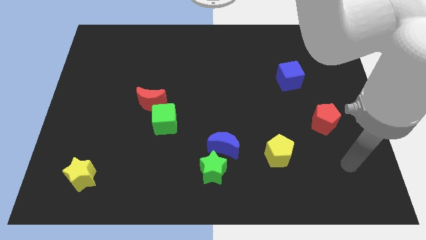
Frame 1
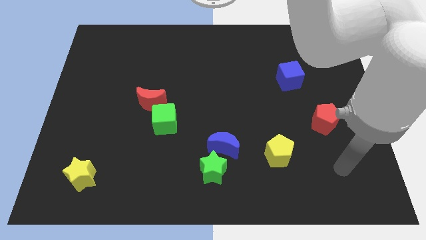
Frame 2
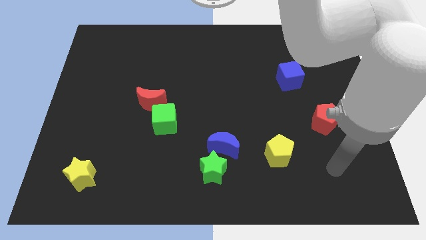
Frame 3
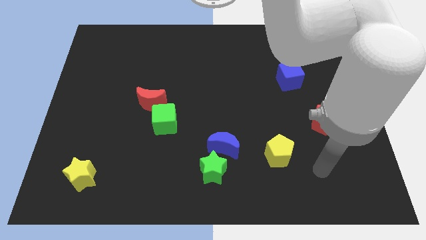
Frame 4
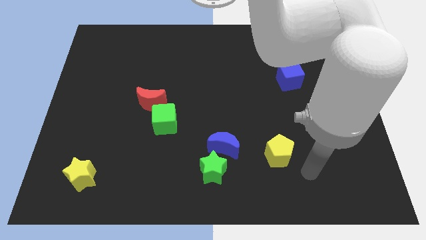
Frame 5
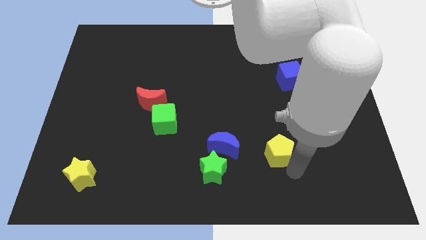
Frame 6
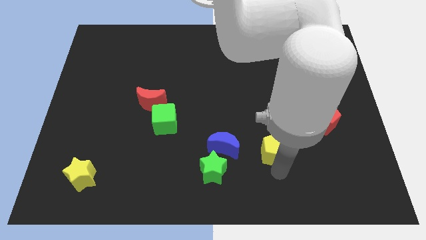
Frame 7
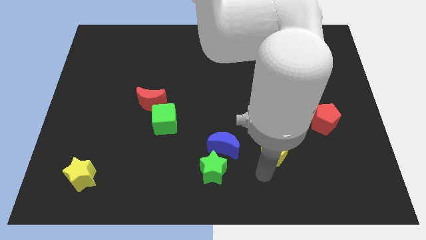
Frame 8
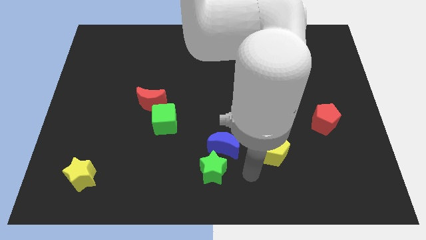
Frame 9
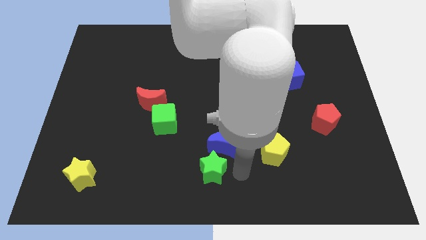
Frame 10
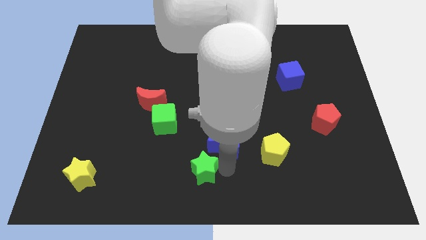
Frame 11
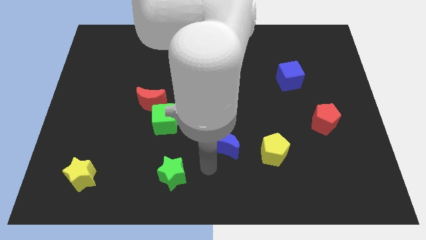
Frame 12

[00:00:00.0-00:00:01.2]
move the blue moon away from the green star

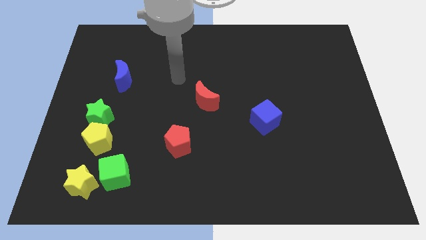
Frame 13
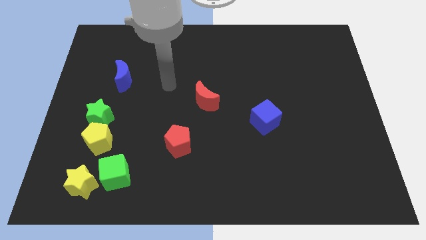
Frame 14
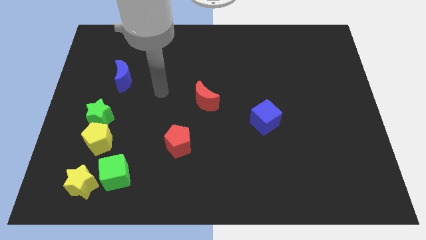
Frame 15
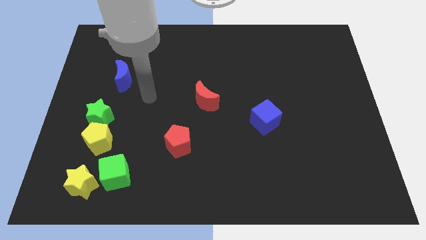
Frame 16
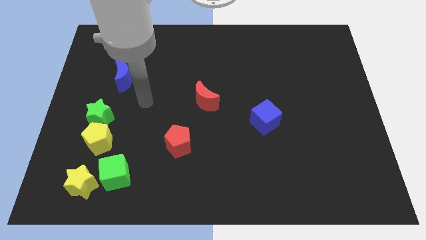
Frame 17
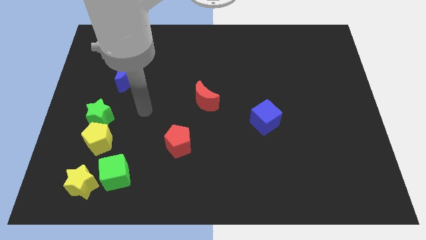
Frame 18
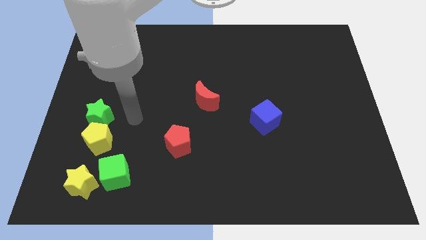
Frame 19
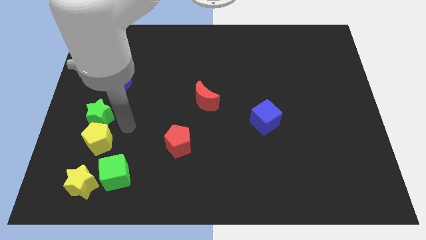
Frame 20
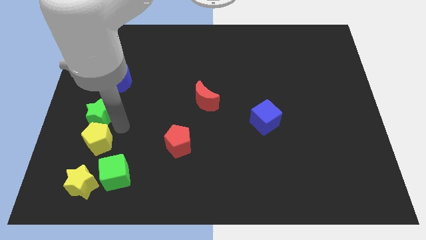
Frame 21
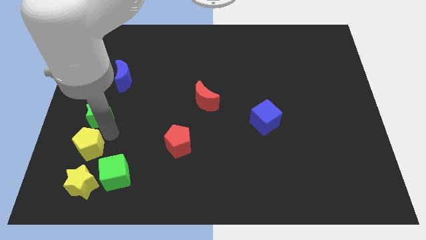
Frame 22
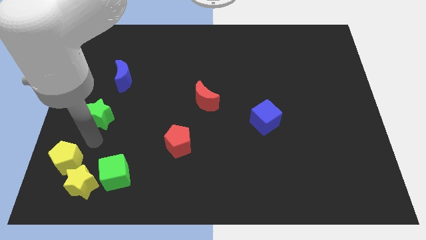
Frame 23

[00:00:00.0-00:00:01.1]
pull the green star apart from the yellow pentagon

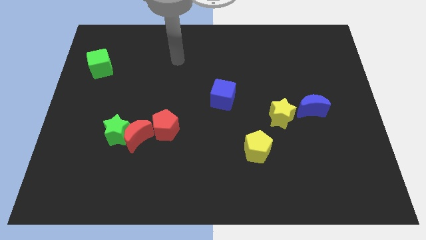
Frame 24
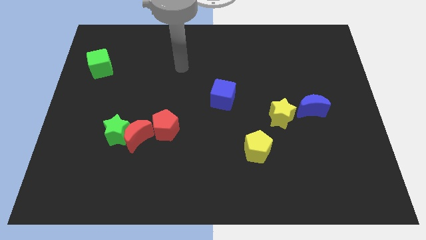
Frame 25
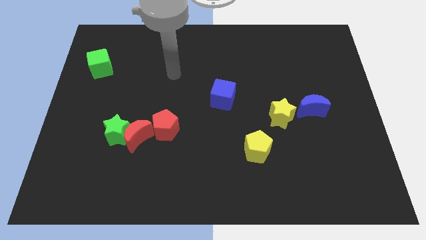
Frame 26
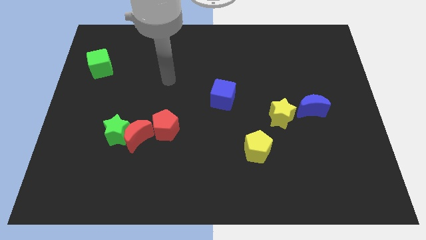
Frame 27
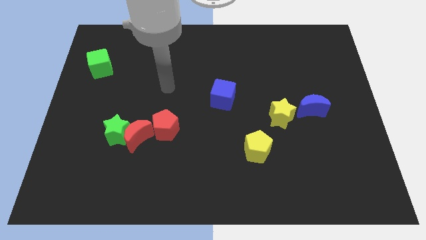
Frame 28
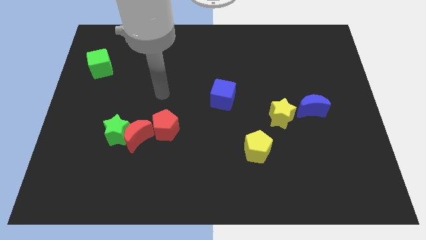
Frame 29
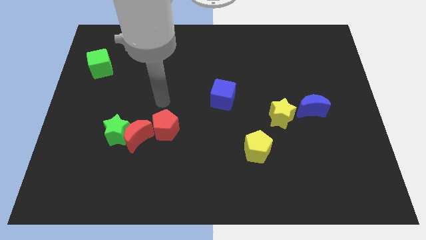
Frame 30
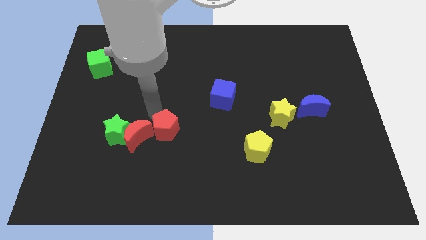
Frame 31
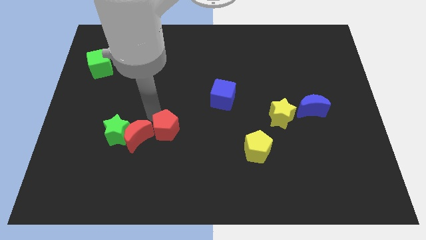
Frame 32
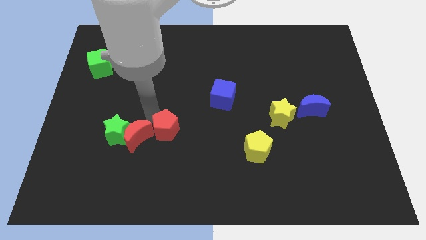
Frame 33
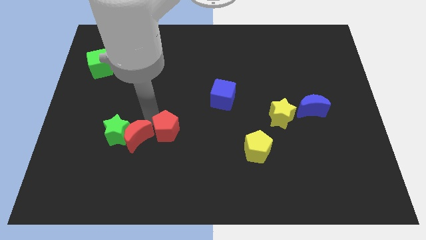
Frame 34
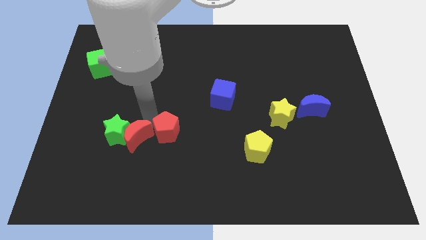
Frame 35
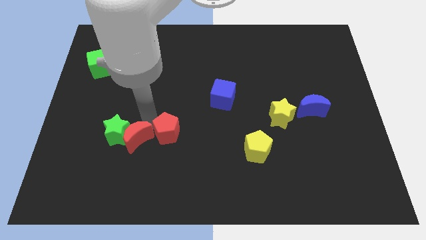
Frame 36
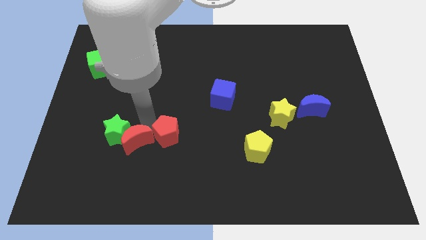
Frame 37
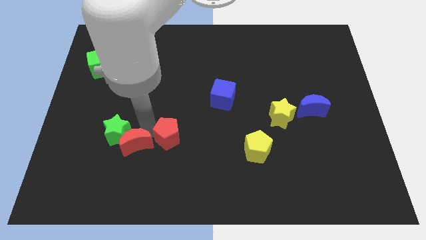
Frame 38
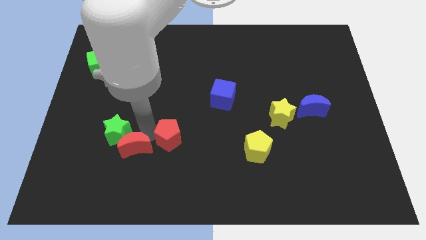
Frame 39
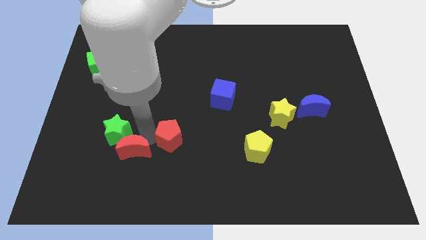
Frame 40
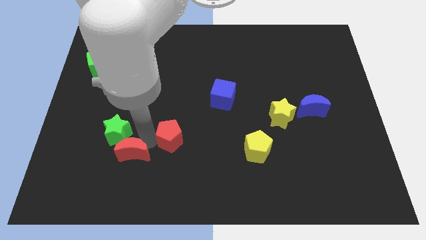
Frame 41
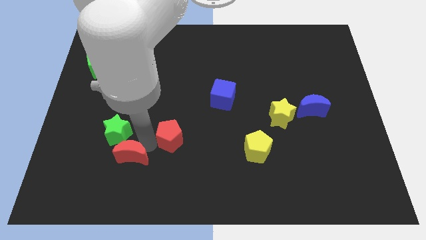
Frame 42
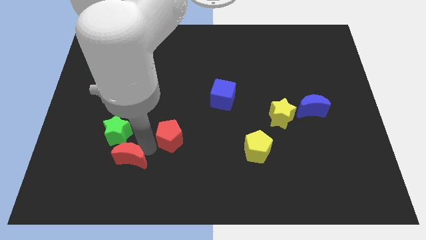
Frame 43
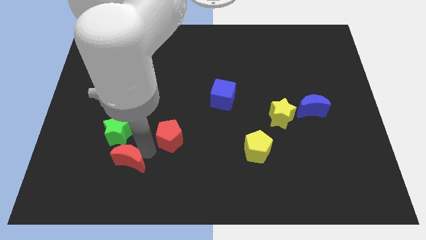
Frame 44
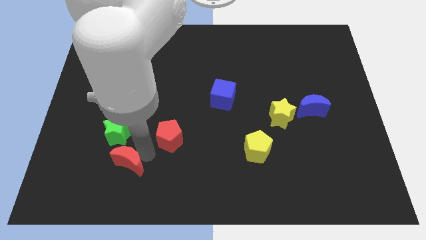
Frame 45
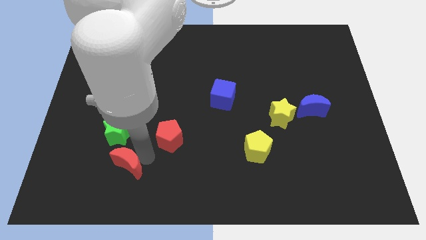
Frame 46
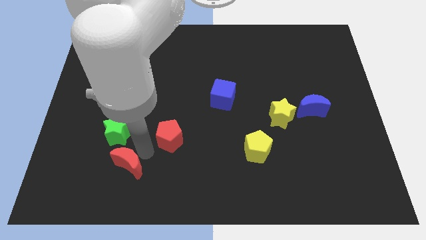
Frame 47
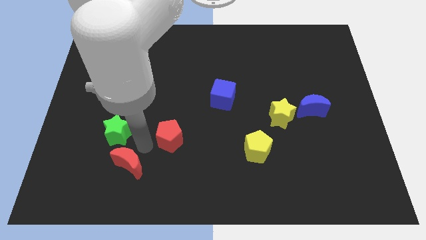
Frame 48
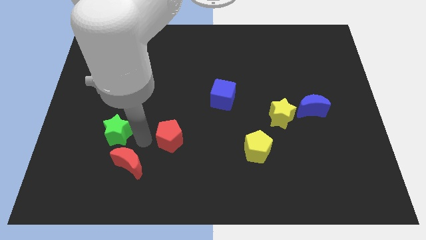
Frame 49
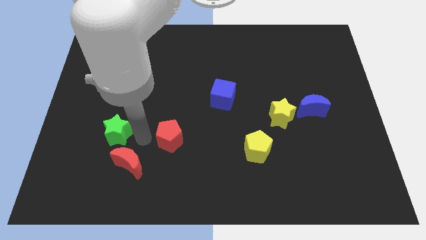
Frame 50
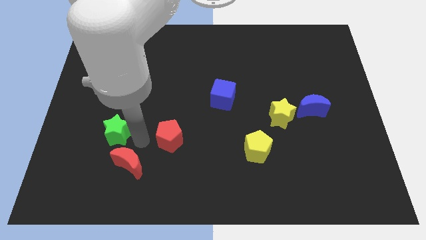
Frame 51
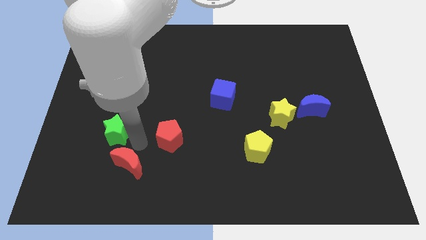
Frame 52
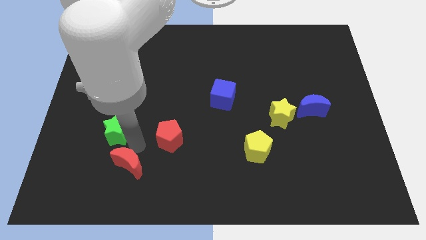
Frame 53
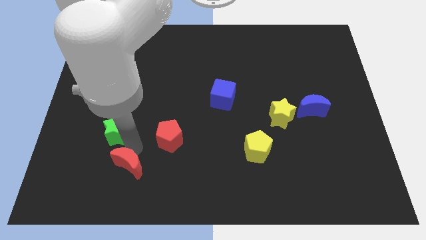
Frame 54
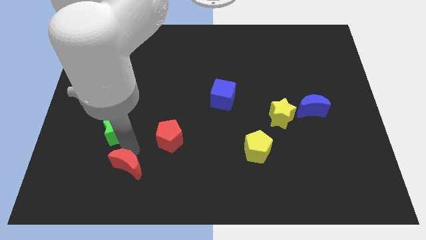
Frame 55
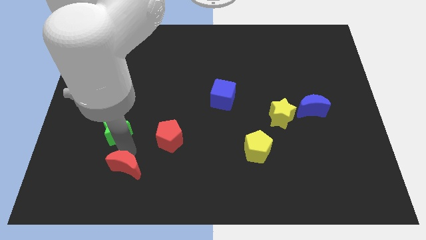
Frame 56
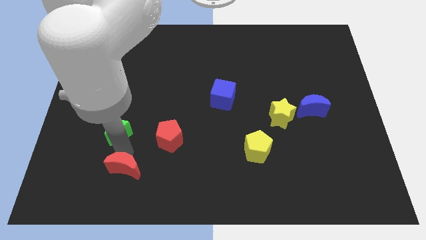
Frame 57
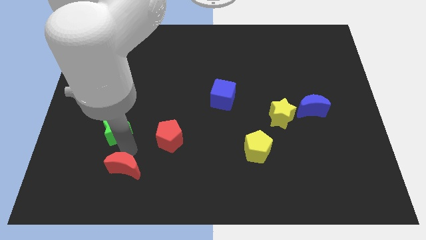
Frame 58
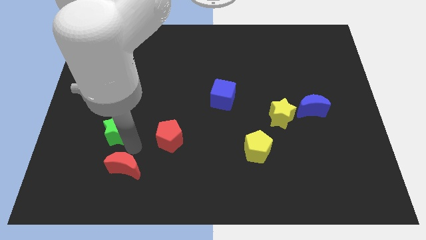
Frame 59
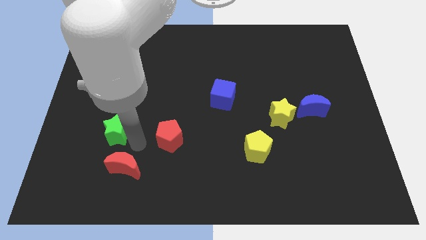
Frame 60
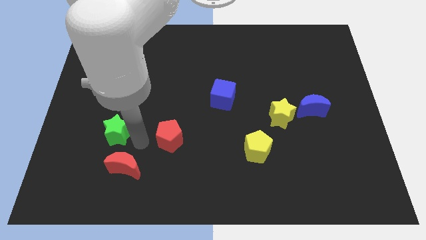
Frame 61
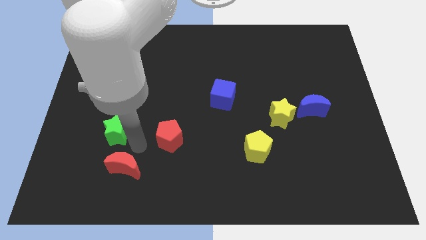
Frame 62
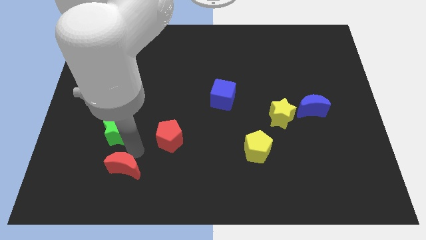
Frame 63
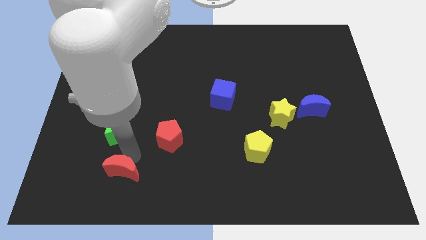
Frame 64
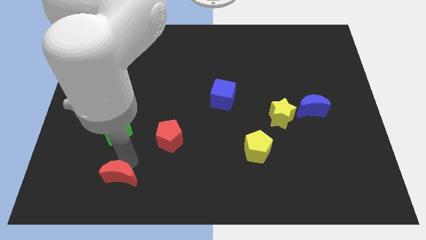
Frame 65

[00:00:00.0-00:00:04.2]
pull the red moon apart from the green star and red pentagon

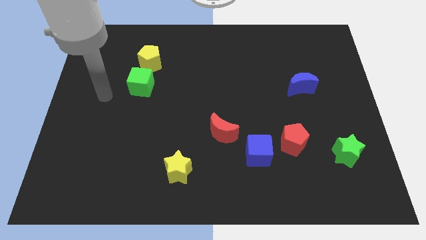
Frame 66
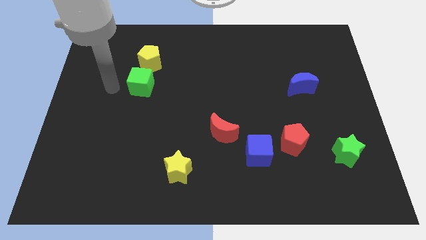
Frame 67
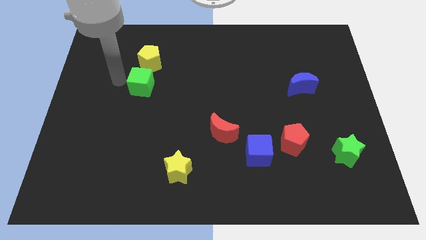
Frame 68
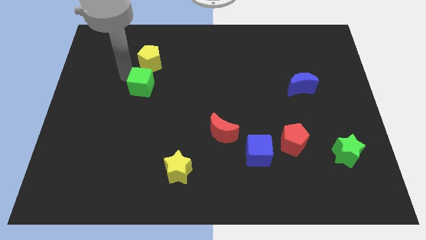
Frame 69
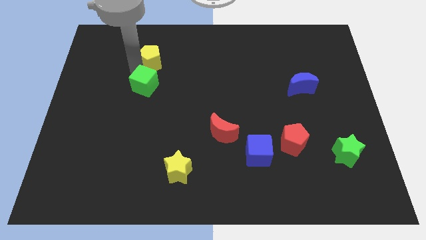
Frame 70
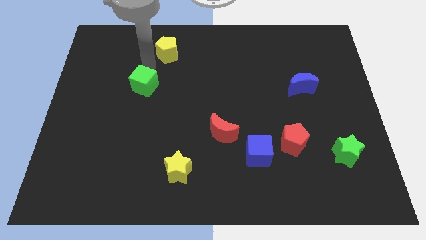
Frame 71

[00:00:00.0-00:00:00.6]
pull the green cube apart from the yellow pentagon

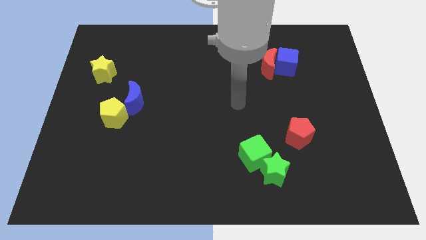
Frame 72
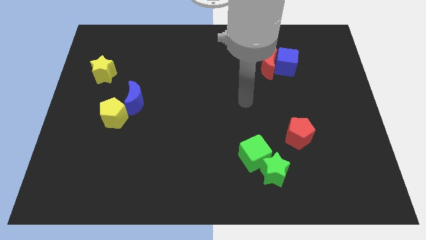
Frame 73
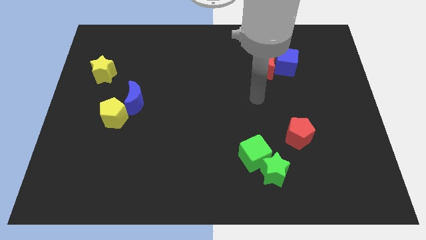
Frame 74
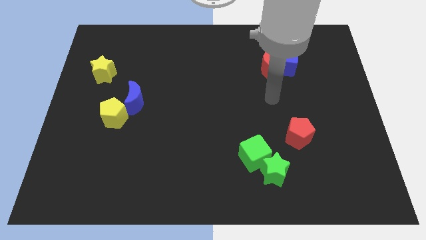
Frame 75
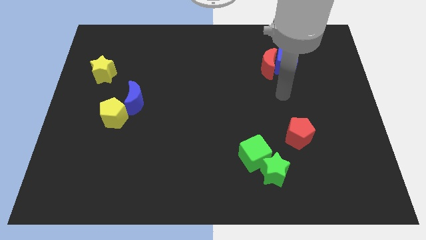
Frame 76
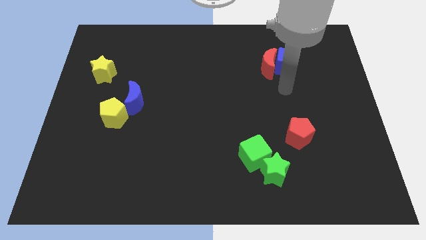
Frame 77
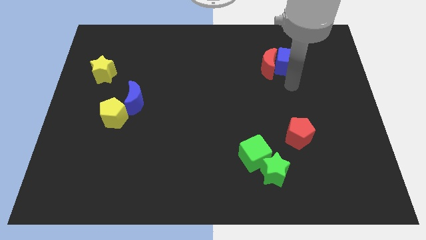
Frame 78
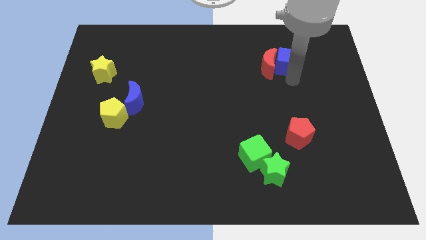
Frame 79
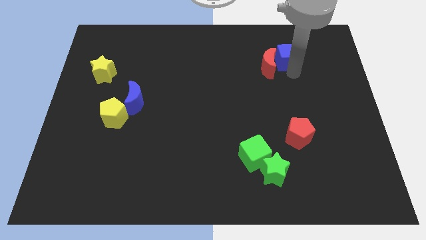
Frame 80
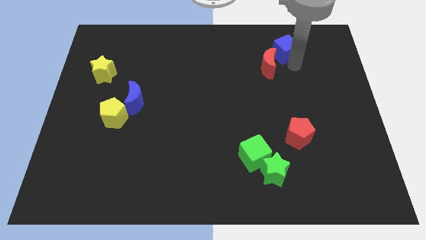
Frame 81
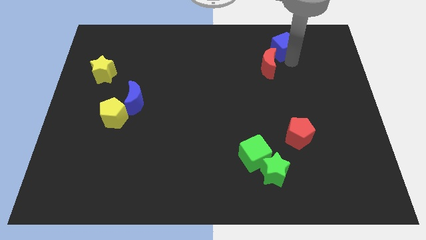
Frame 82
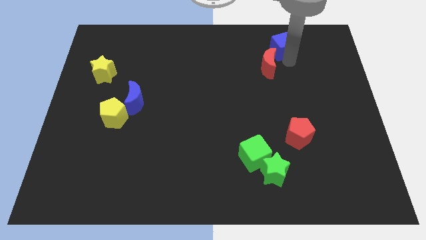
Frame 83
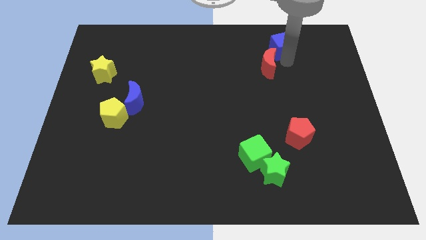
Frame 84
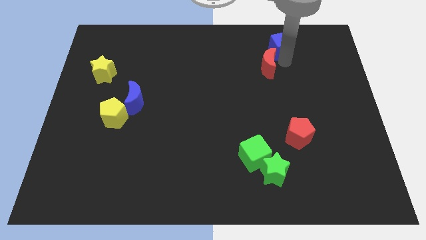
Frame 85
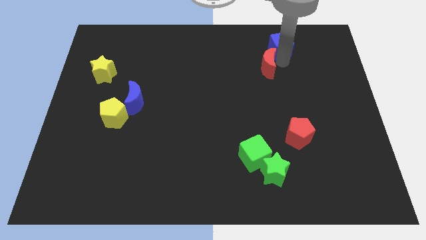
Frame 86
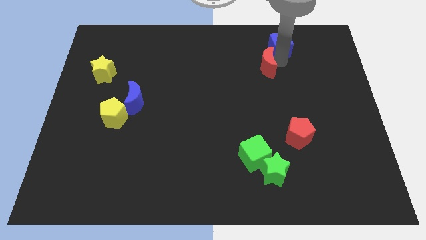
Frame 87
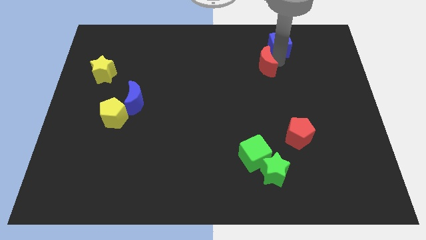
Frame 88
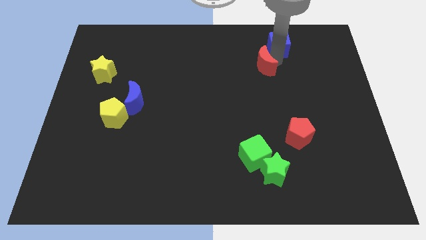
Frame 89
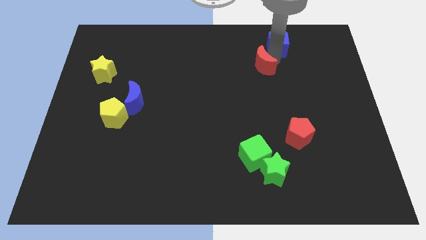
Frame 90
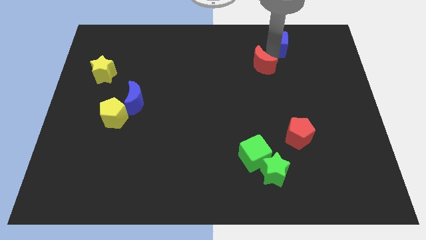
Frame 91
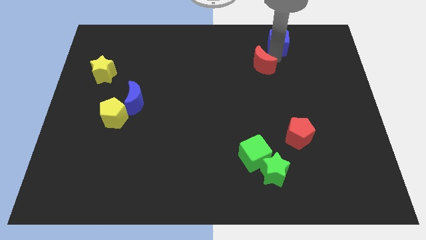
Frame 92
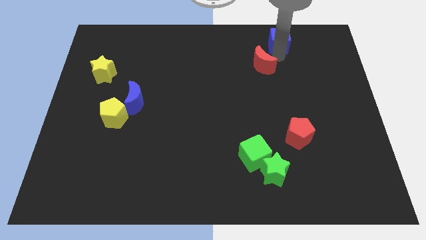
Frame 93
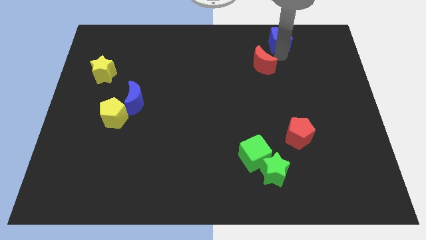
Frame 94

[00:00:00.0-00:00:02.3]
move the red moon away from the blue cube
